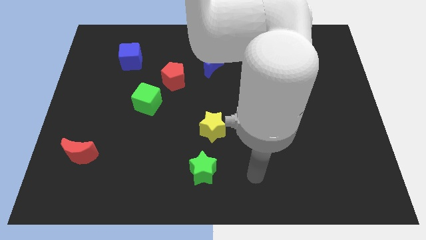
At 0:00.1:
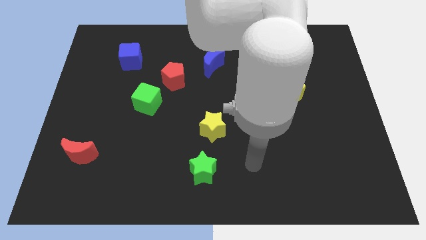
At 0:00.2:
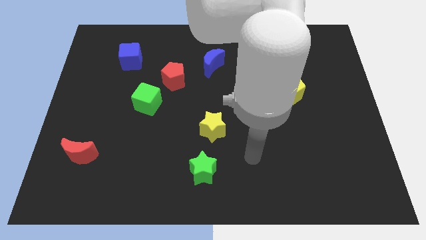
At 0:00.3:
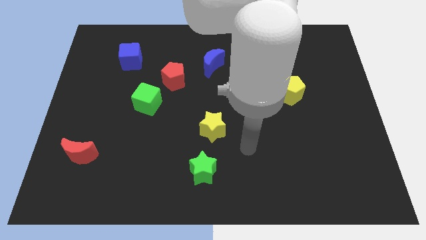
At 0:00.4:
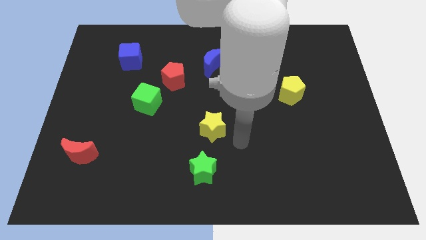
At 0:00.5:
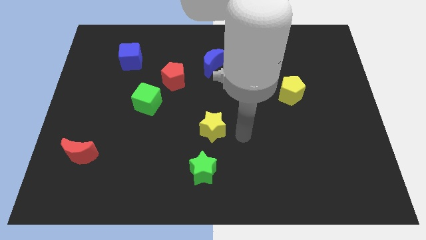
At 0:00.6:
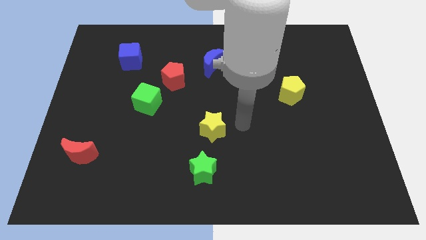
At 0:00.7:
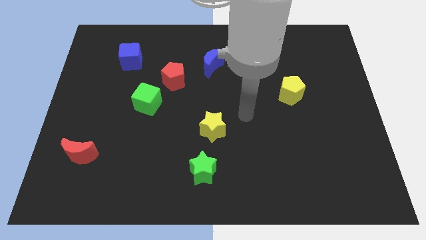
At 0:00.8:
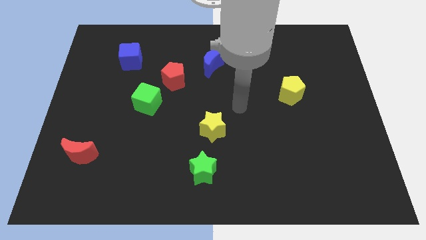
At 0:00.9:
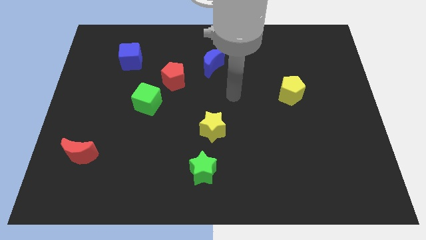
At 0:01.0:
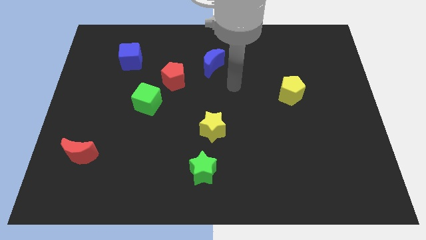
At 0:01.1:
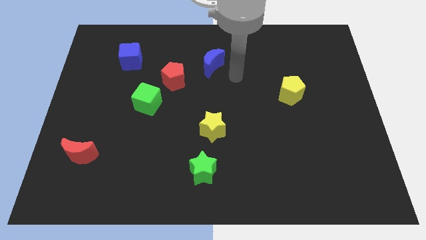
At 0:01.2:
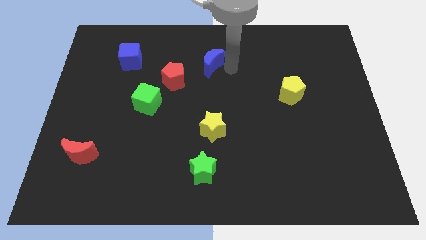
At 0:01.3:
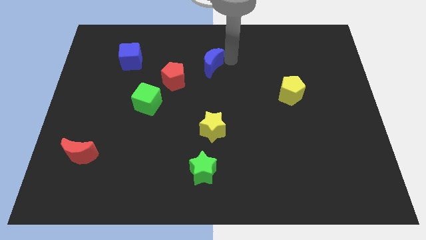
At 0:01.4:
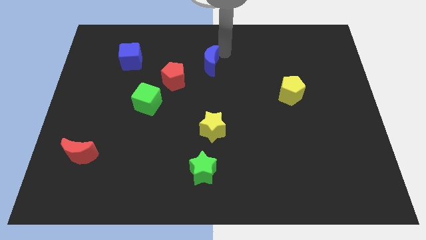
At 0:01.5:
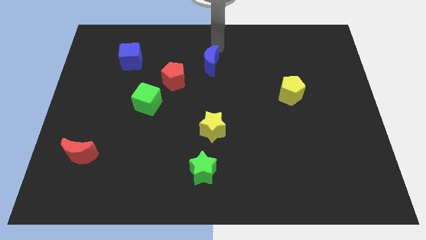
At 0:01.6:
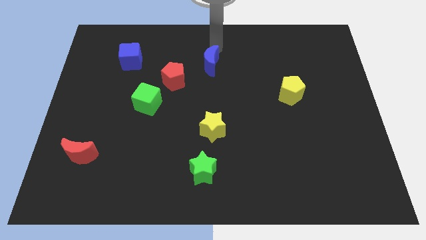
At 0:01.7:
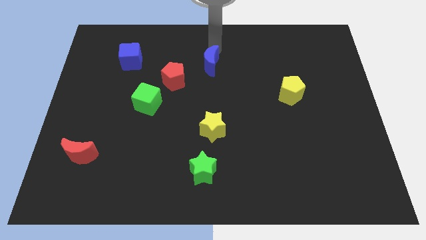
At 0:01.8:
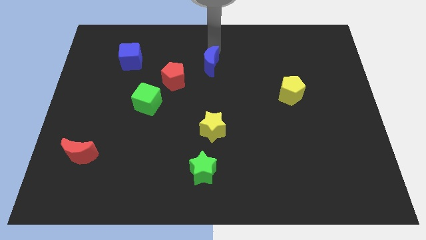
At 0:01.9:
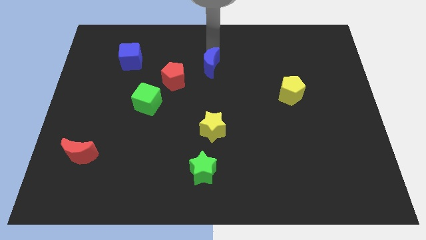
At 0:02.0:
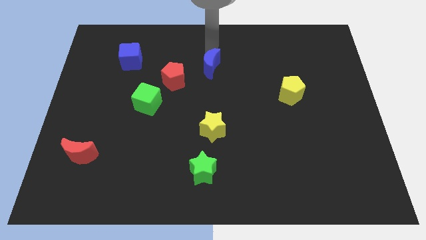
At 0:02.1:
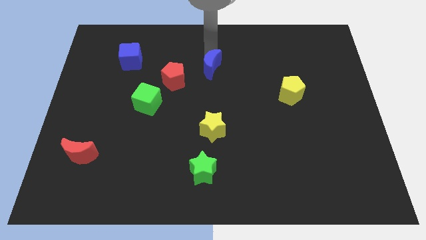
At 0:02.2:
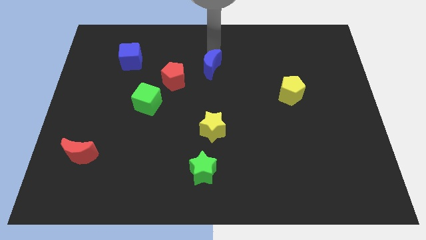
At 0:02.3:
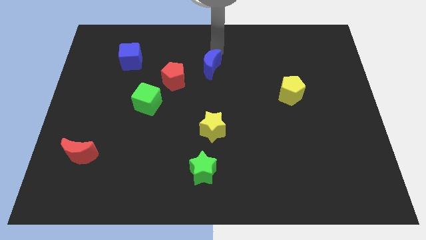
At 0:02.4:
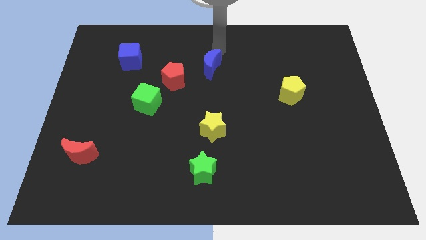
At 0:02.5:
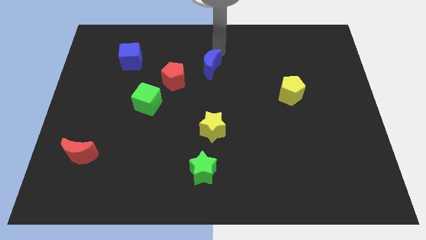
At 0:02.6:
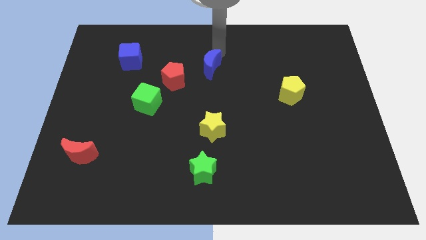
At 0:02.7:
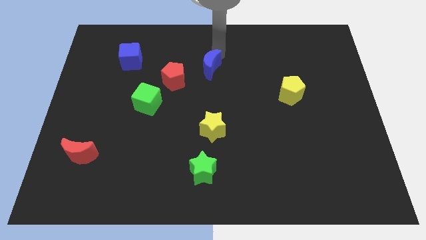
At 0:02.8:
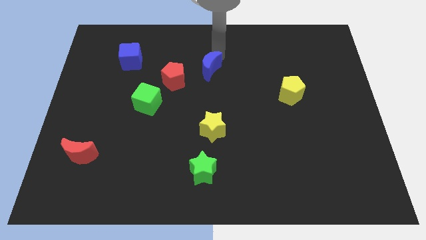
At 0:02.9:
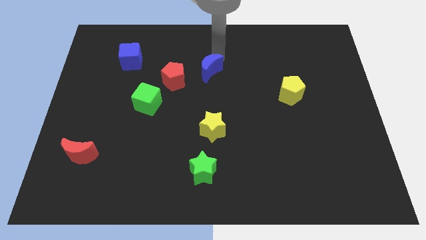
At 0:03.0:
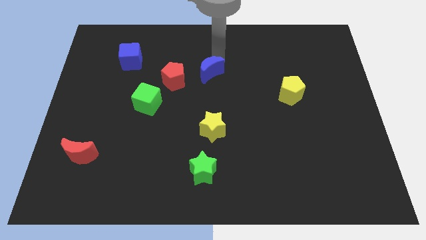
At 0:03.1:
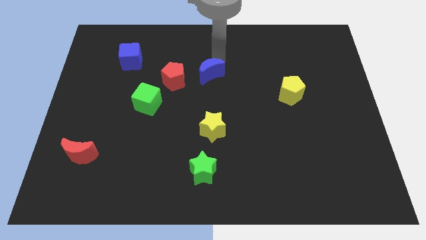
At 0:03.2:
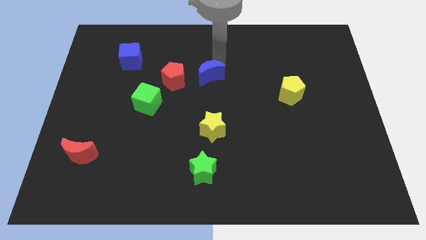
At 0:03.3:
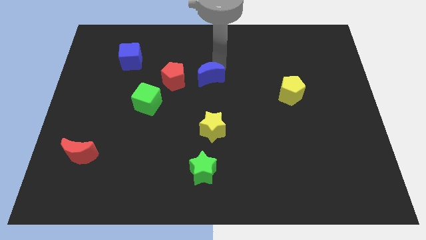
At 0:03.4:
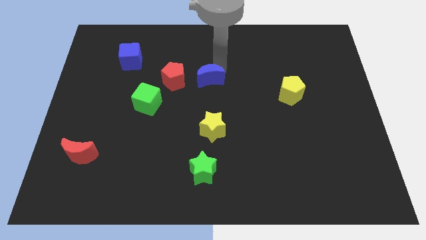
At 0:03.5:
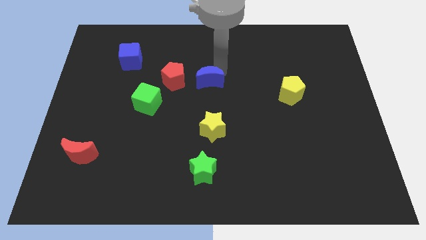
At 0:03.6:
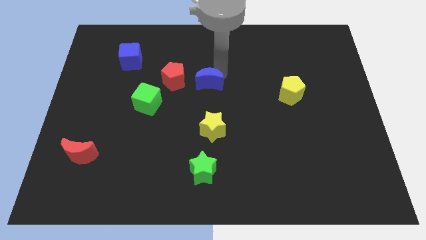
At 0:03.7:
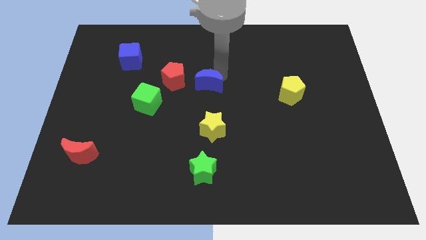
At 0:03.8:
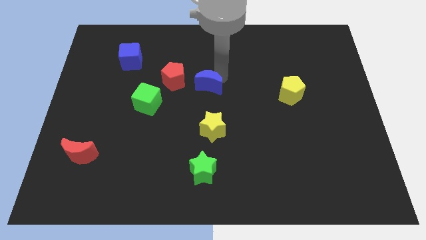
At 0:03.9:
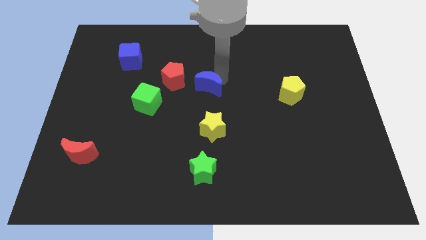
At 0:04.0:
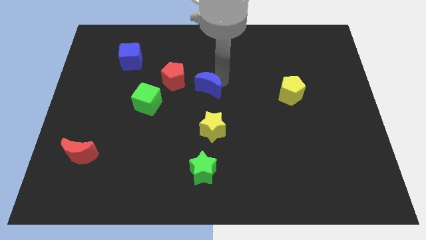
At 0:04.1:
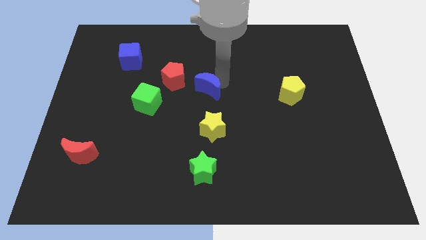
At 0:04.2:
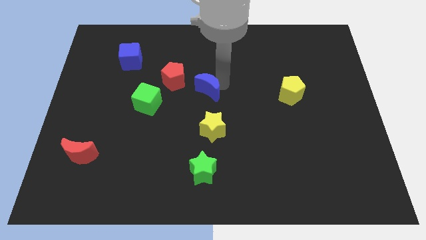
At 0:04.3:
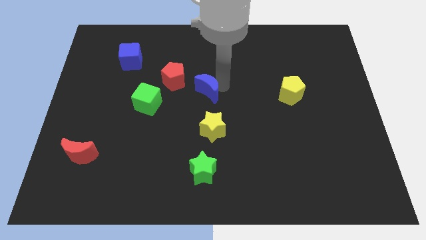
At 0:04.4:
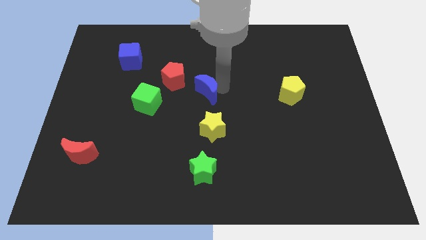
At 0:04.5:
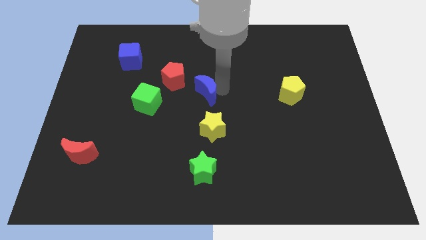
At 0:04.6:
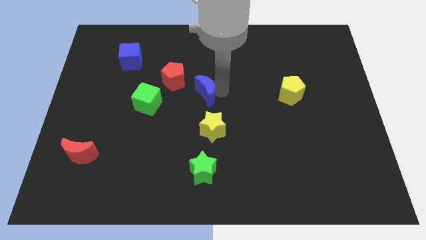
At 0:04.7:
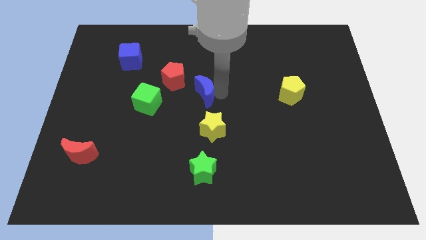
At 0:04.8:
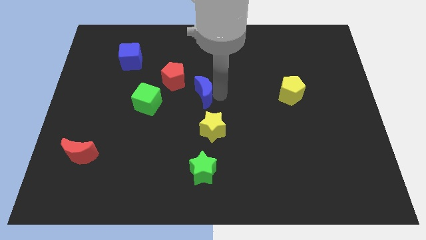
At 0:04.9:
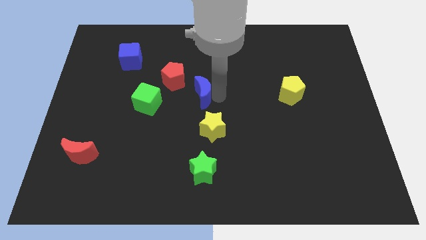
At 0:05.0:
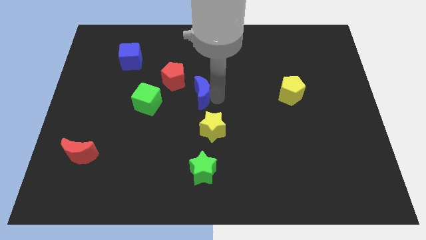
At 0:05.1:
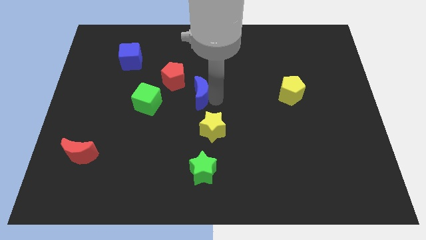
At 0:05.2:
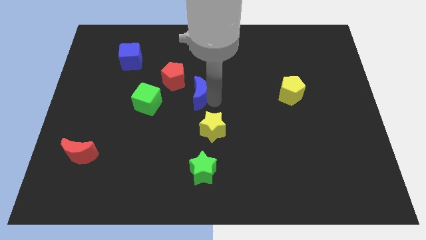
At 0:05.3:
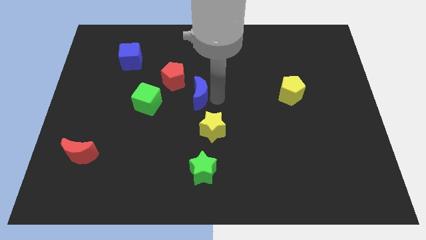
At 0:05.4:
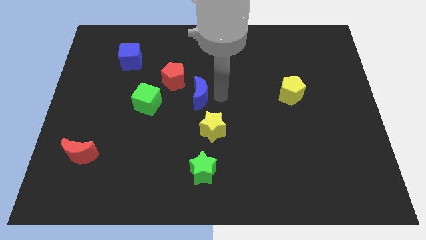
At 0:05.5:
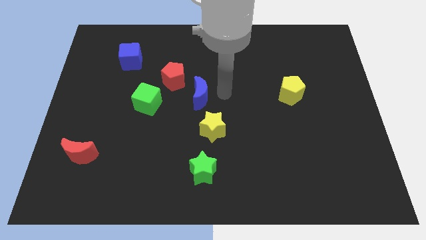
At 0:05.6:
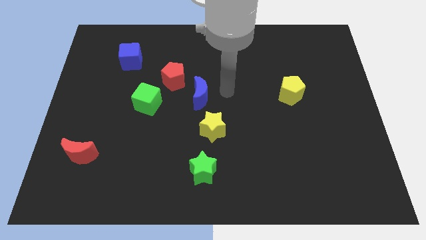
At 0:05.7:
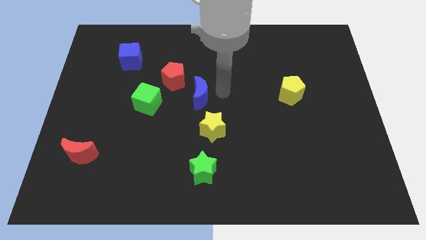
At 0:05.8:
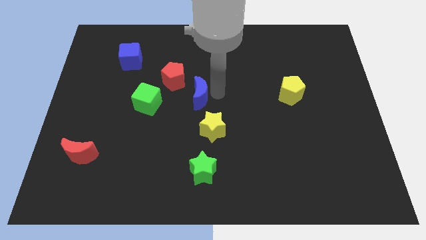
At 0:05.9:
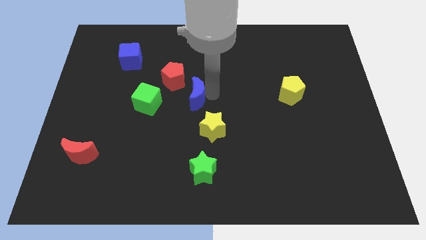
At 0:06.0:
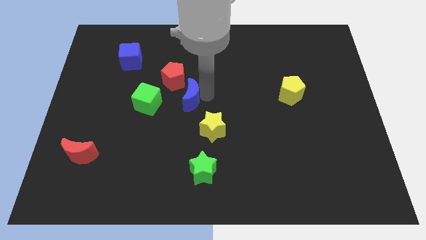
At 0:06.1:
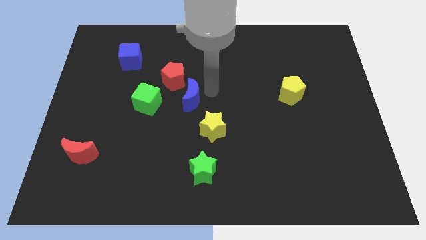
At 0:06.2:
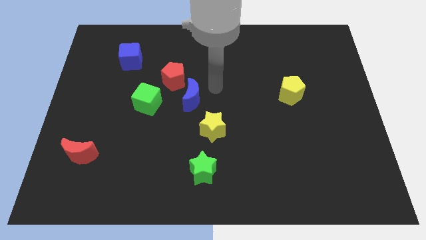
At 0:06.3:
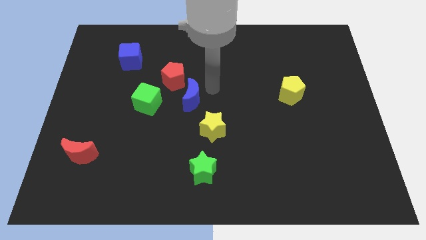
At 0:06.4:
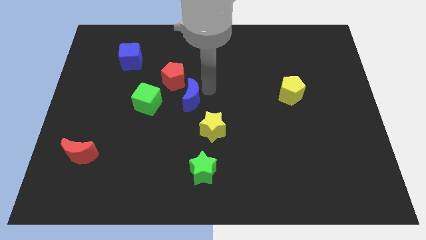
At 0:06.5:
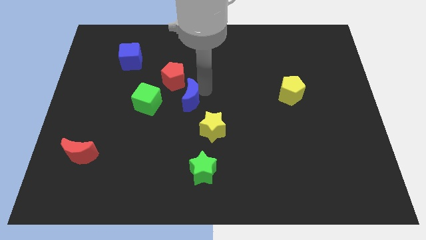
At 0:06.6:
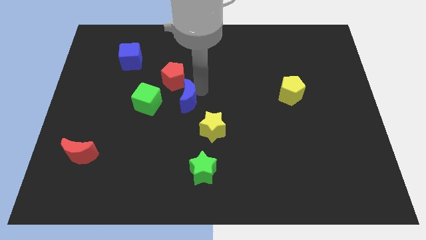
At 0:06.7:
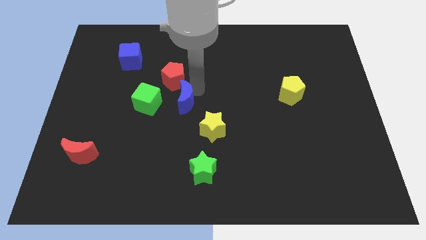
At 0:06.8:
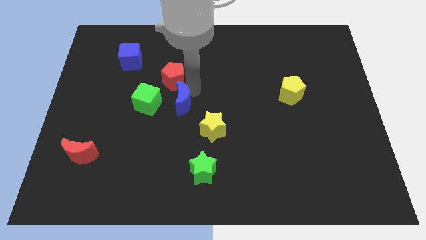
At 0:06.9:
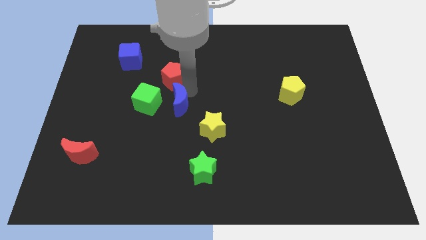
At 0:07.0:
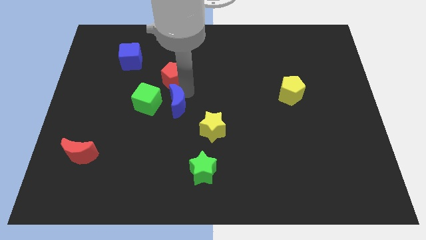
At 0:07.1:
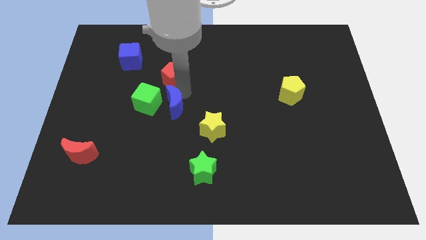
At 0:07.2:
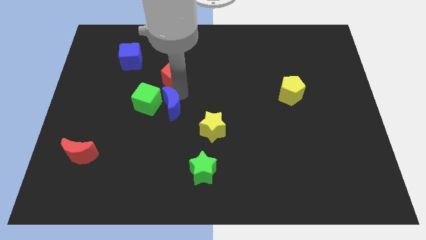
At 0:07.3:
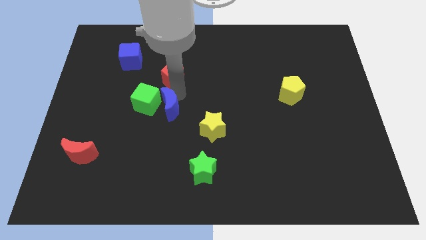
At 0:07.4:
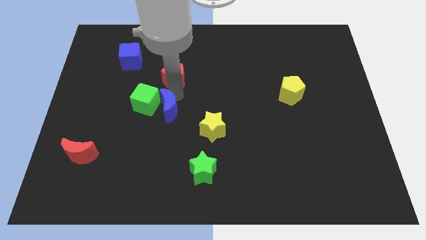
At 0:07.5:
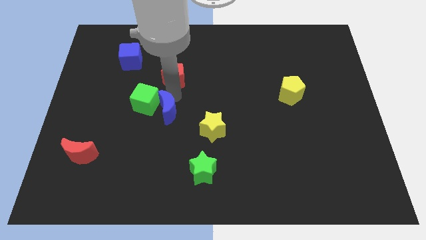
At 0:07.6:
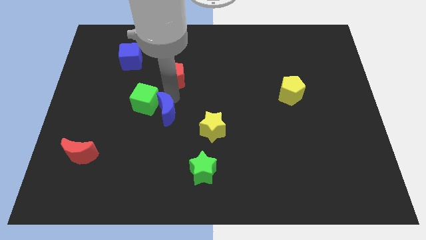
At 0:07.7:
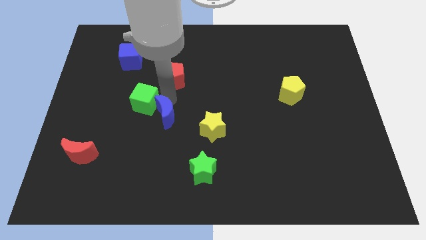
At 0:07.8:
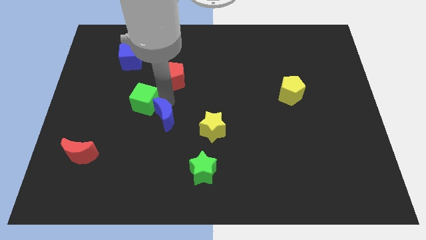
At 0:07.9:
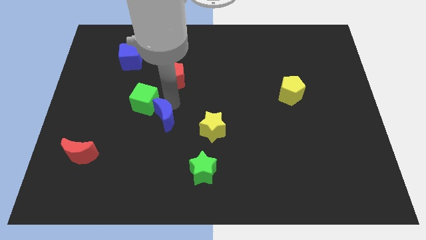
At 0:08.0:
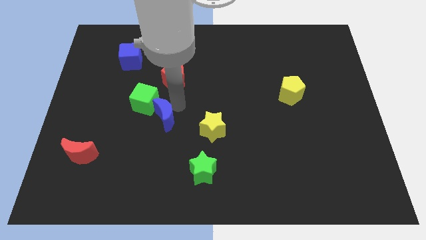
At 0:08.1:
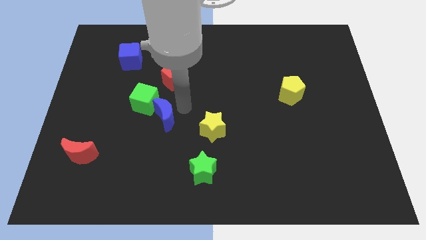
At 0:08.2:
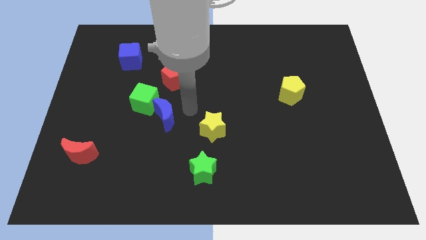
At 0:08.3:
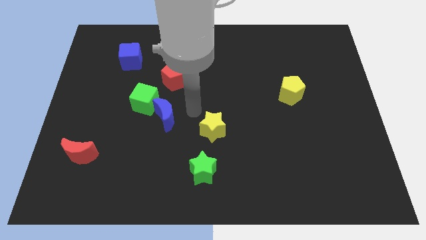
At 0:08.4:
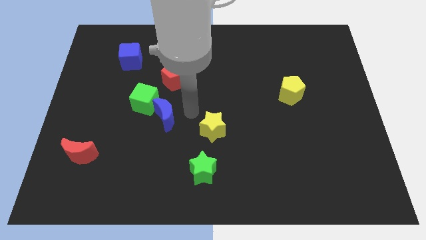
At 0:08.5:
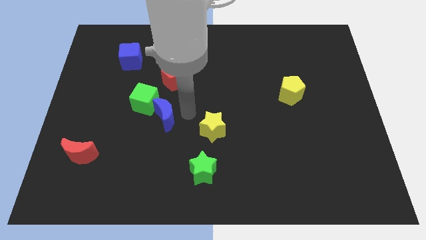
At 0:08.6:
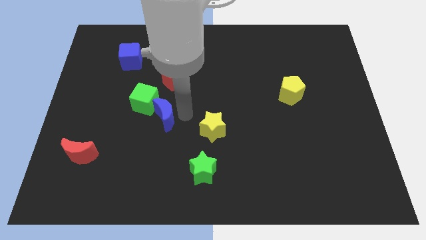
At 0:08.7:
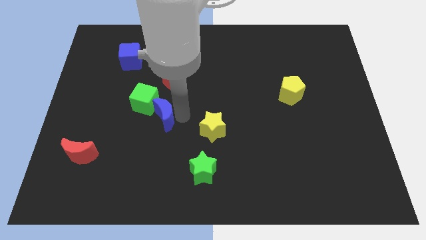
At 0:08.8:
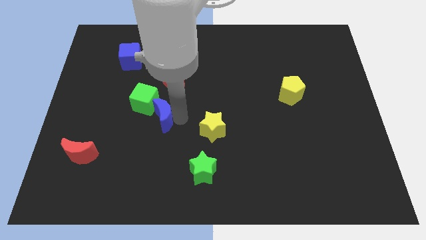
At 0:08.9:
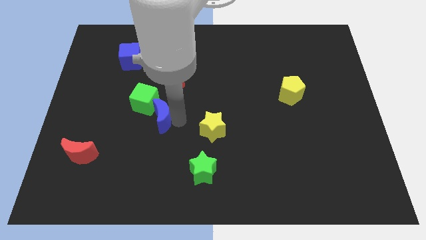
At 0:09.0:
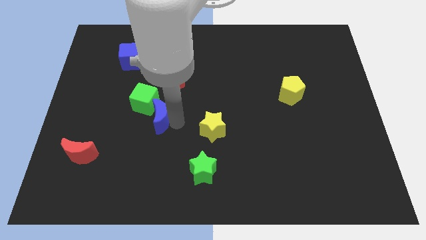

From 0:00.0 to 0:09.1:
slide the blue moon down and left
